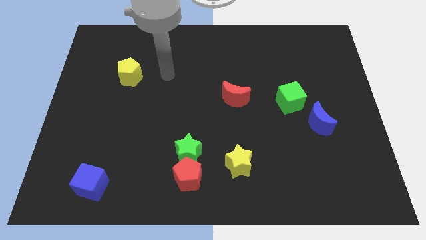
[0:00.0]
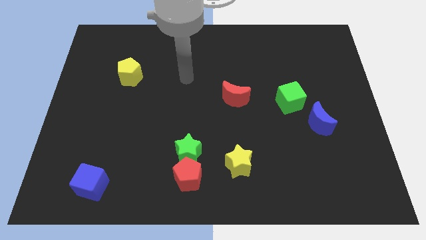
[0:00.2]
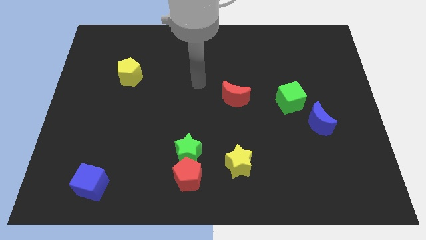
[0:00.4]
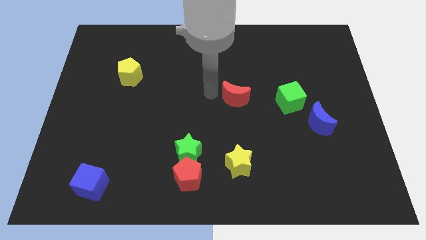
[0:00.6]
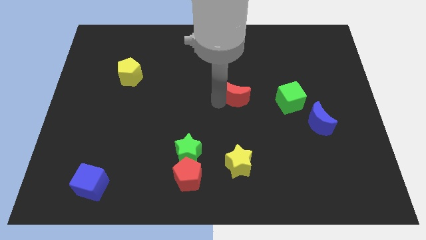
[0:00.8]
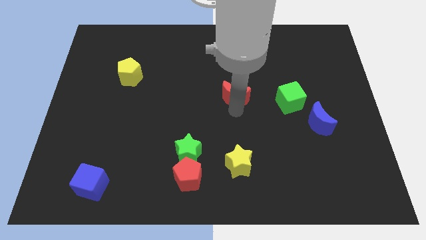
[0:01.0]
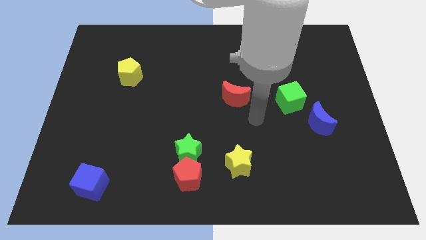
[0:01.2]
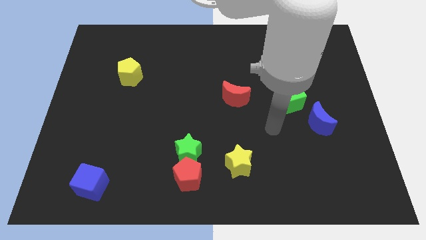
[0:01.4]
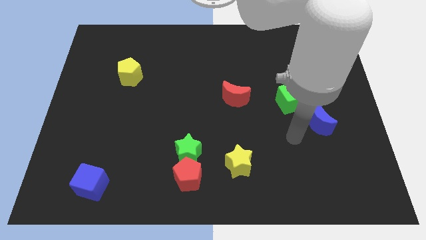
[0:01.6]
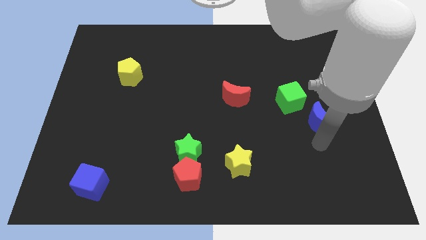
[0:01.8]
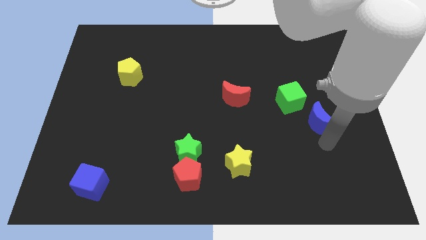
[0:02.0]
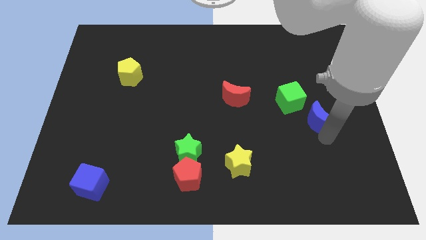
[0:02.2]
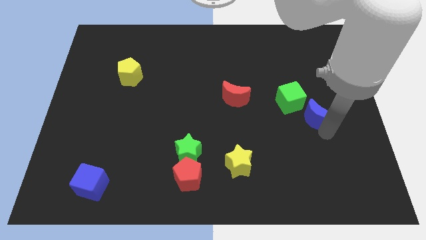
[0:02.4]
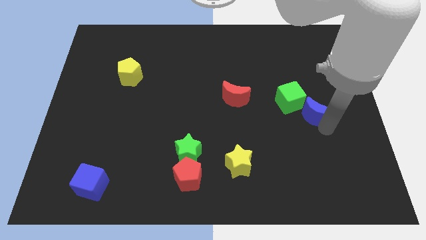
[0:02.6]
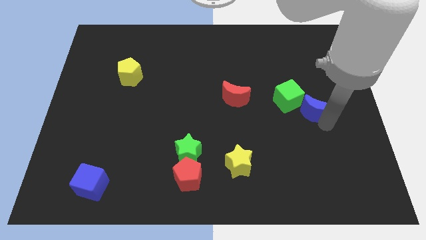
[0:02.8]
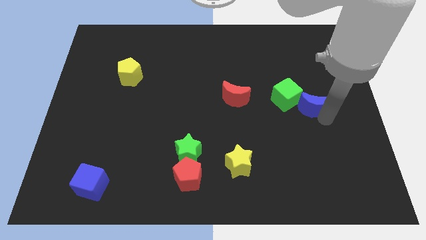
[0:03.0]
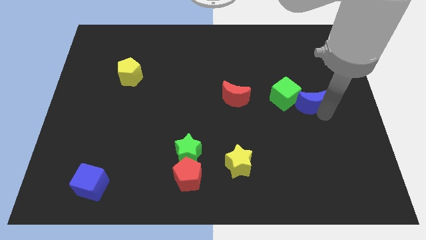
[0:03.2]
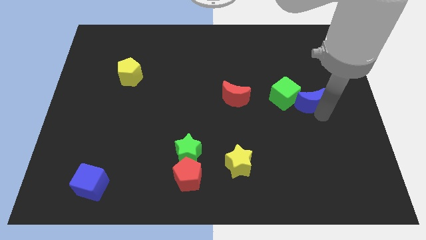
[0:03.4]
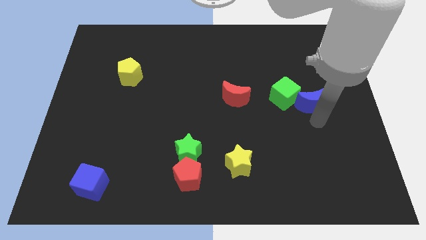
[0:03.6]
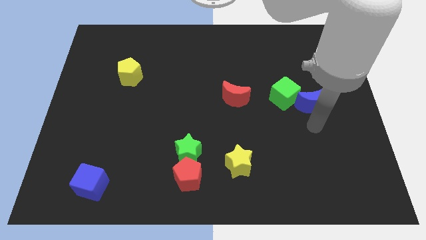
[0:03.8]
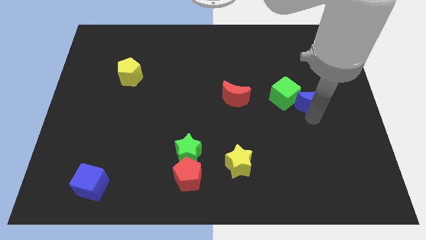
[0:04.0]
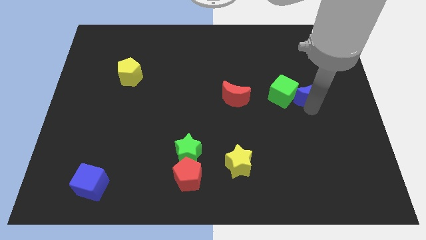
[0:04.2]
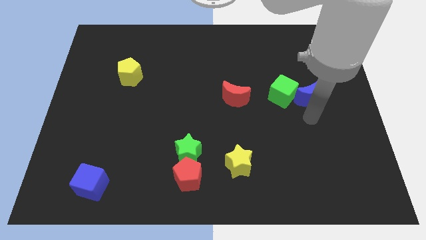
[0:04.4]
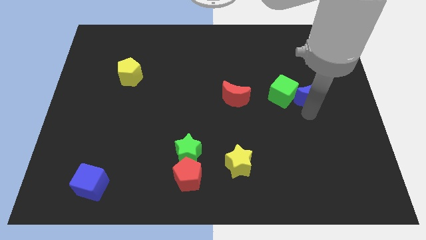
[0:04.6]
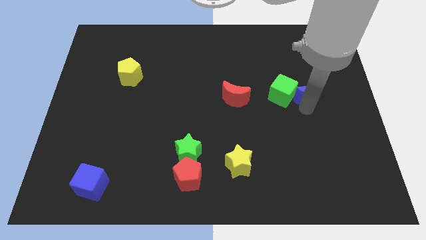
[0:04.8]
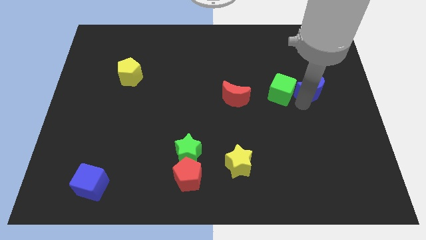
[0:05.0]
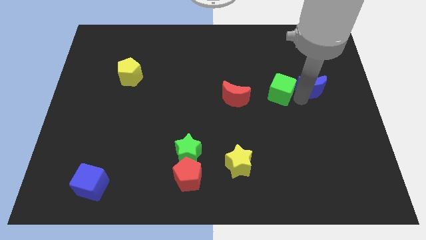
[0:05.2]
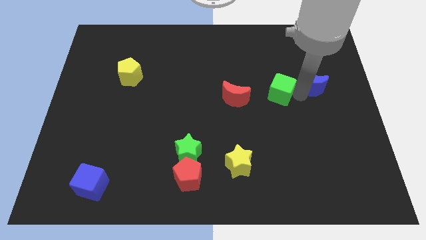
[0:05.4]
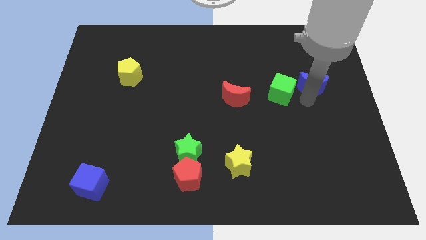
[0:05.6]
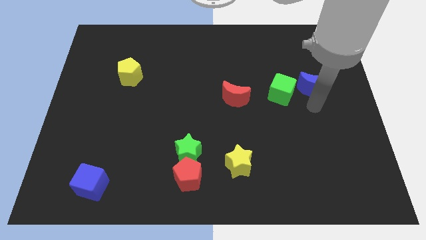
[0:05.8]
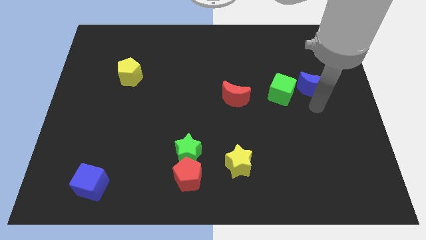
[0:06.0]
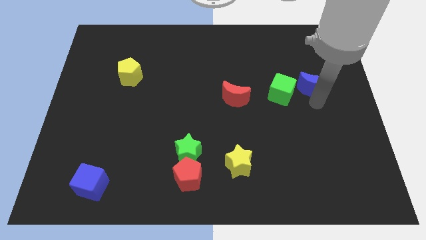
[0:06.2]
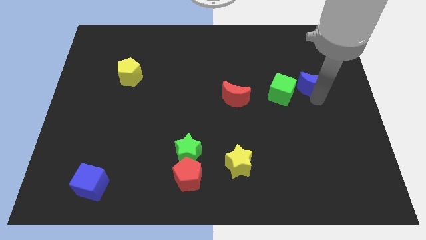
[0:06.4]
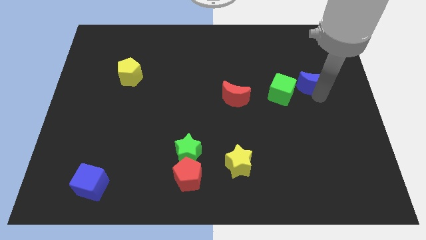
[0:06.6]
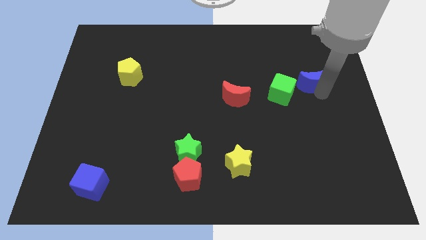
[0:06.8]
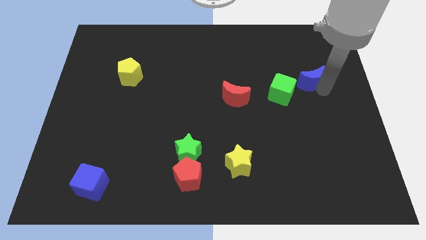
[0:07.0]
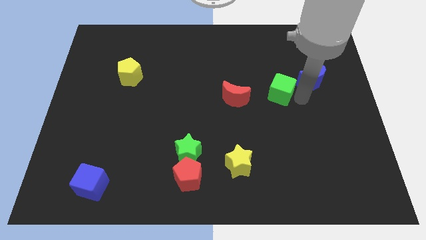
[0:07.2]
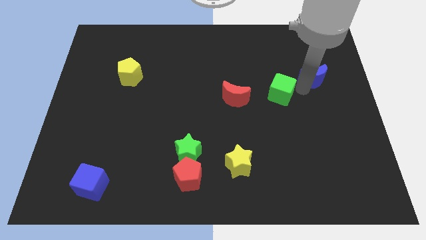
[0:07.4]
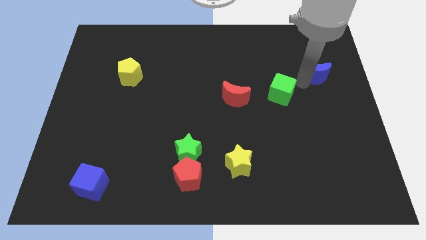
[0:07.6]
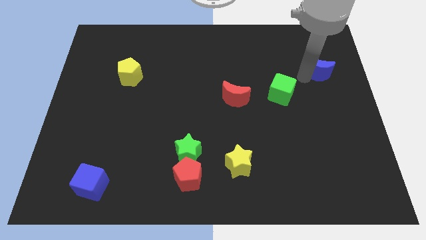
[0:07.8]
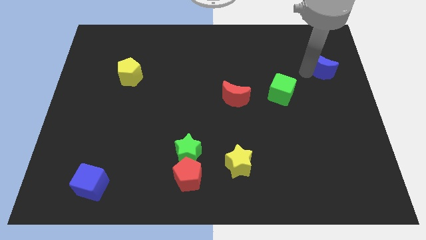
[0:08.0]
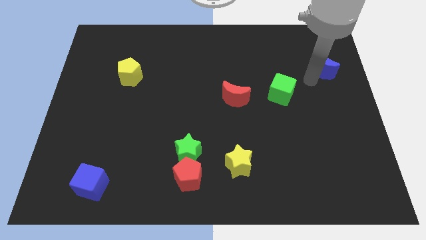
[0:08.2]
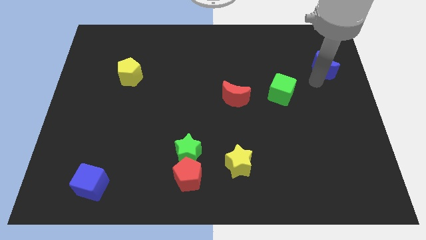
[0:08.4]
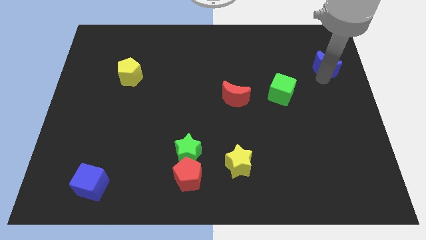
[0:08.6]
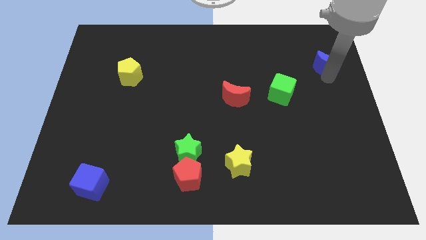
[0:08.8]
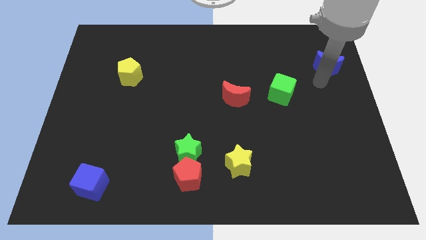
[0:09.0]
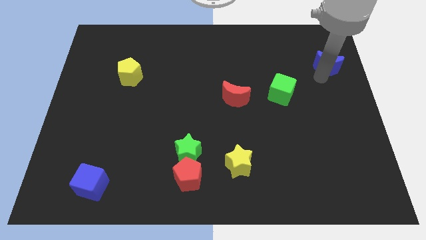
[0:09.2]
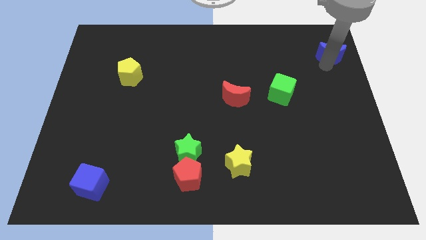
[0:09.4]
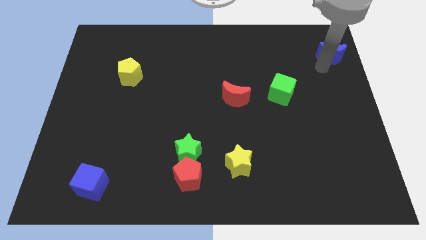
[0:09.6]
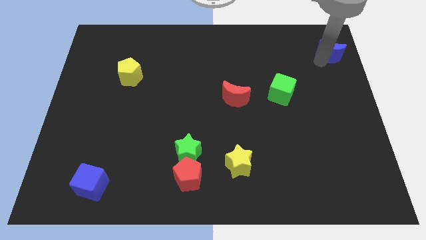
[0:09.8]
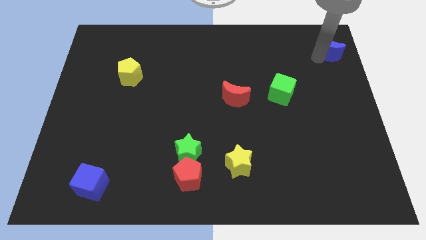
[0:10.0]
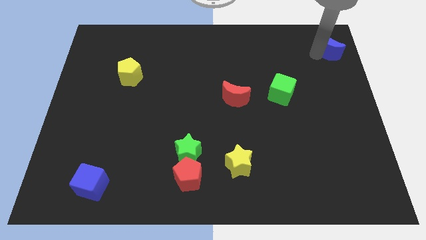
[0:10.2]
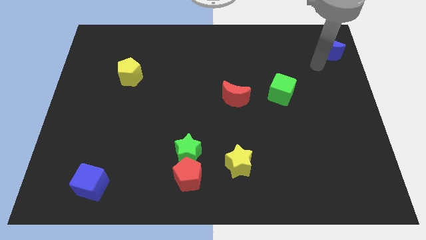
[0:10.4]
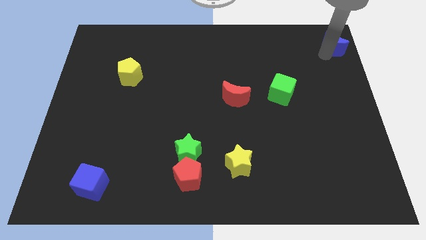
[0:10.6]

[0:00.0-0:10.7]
slide the blue moon to the top right corner

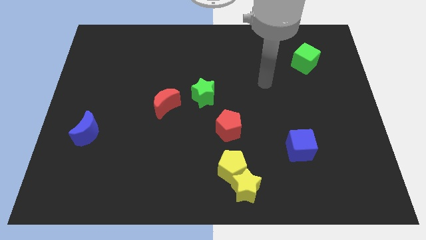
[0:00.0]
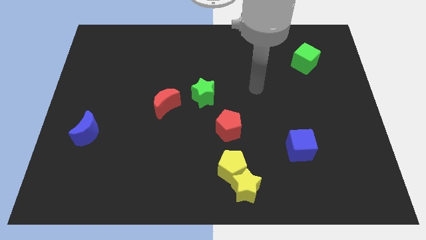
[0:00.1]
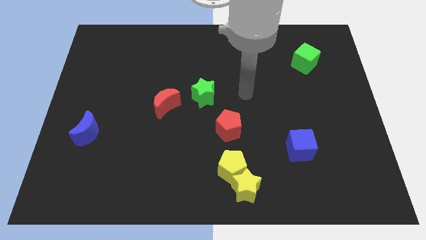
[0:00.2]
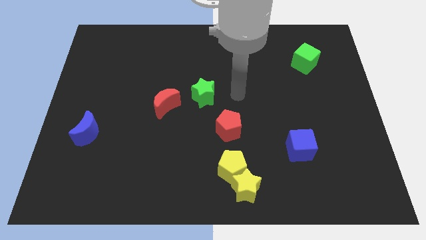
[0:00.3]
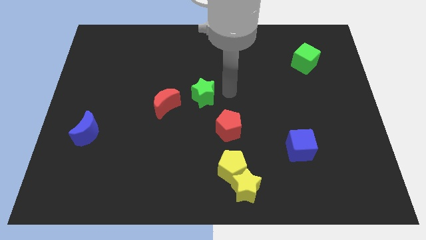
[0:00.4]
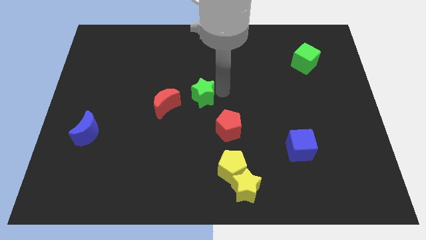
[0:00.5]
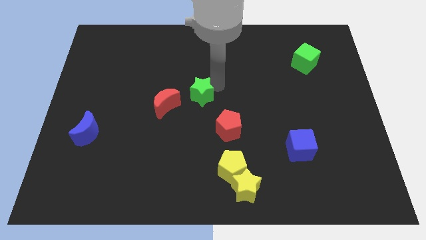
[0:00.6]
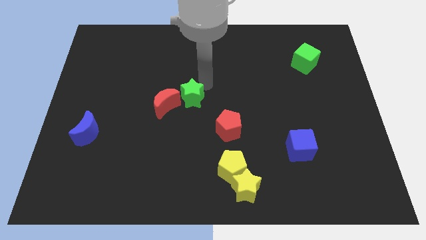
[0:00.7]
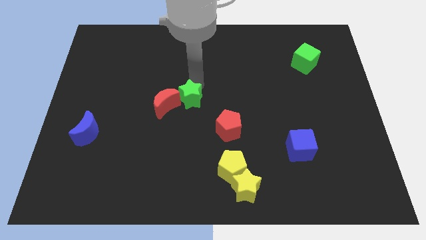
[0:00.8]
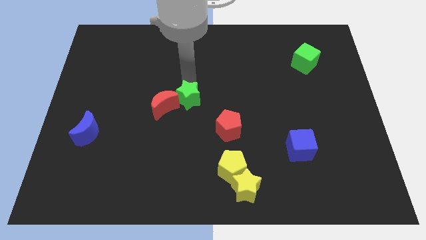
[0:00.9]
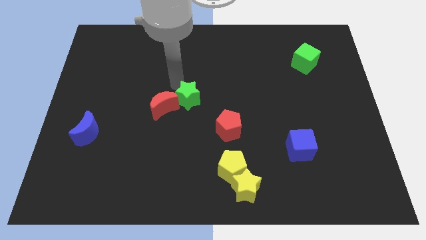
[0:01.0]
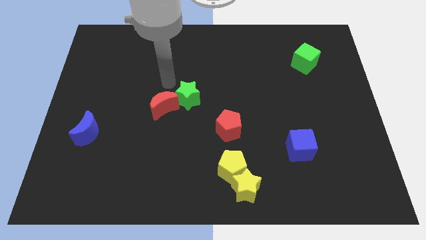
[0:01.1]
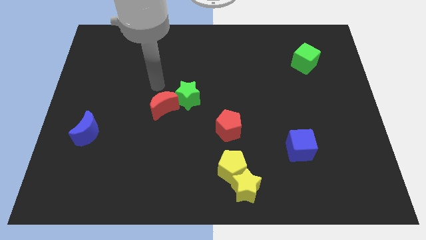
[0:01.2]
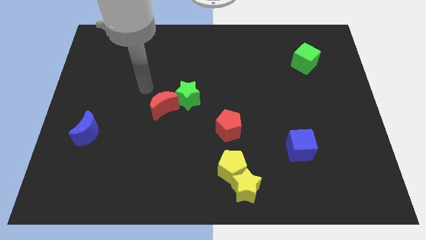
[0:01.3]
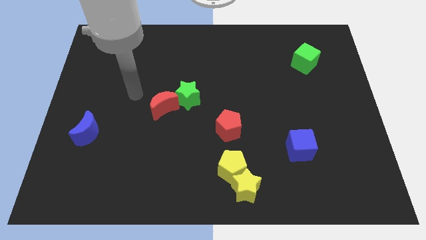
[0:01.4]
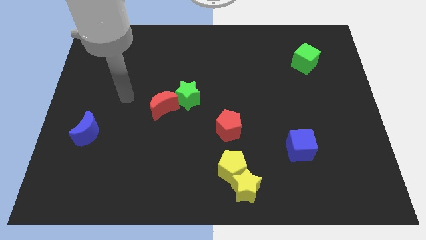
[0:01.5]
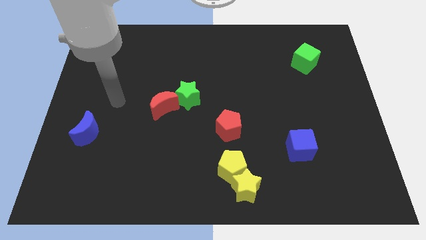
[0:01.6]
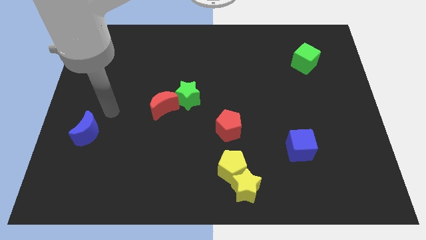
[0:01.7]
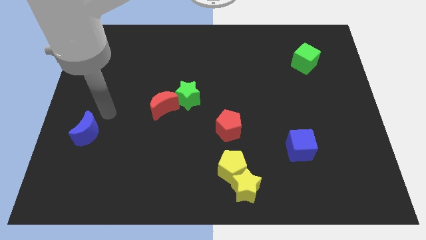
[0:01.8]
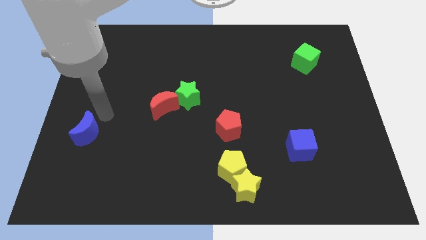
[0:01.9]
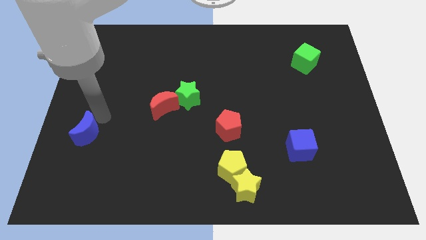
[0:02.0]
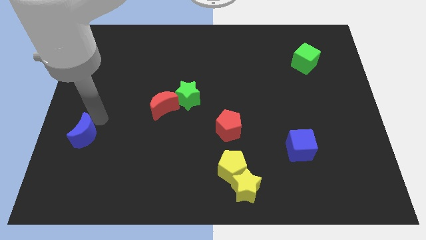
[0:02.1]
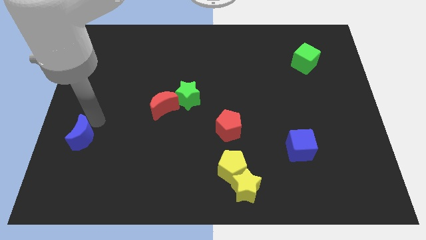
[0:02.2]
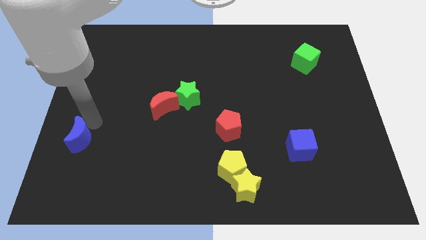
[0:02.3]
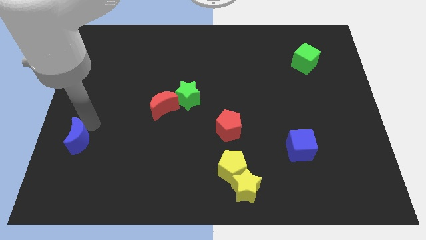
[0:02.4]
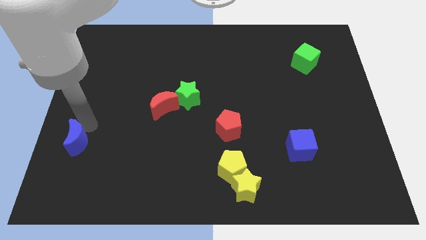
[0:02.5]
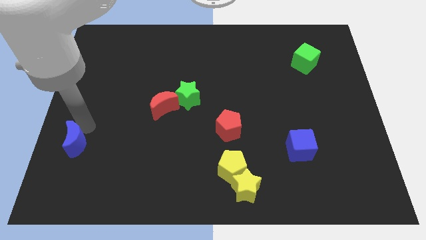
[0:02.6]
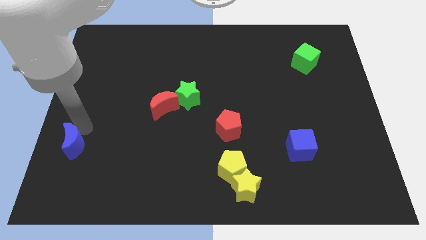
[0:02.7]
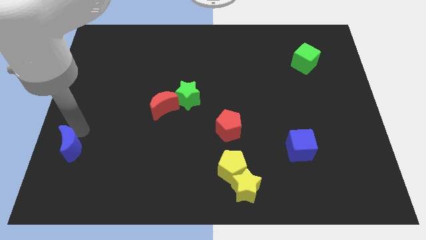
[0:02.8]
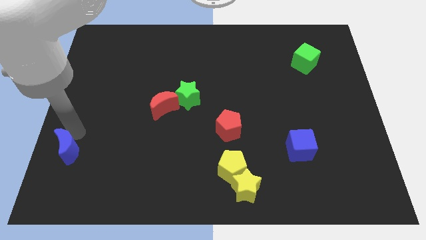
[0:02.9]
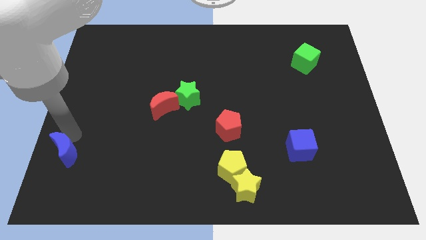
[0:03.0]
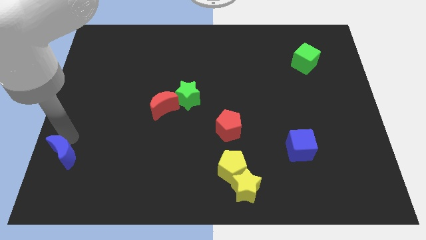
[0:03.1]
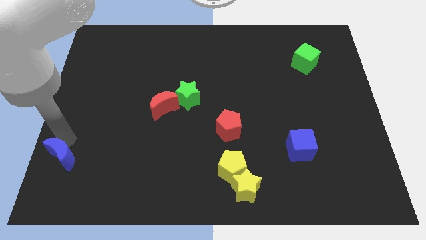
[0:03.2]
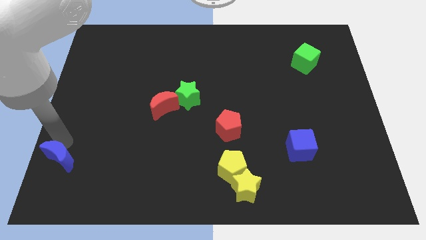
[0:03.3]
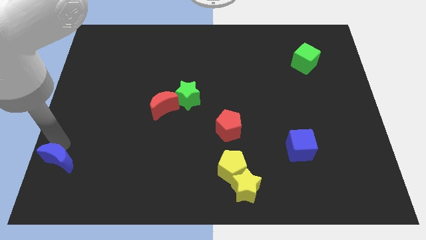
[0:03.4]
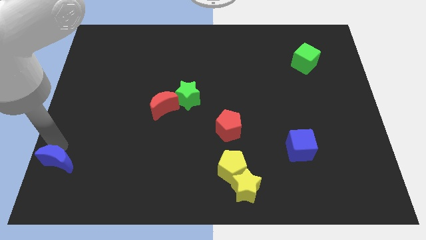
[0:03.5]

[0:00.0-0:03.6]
move the blue moon to the bottom left
